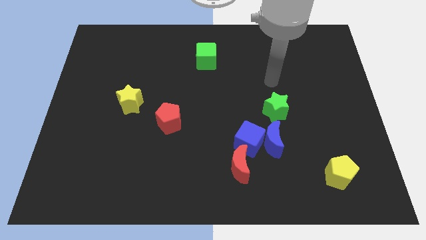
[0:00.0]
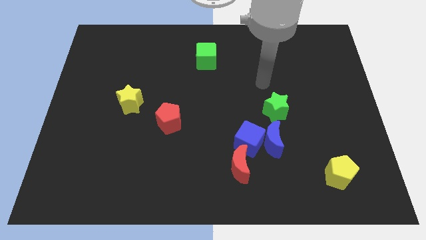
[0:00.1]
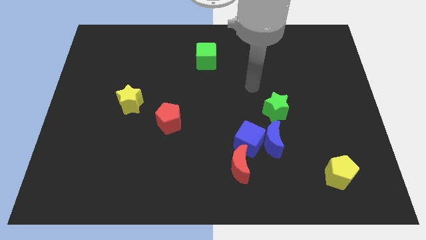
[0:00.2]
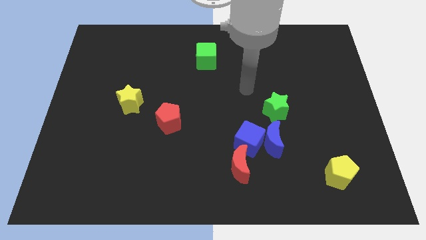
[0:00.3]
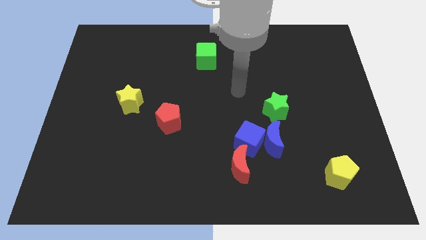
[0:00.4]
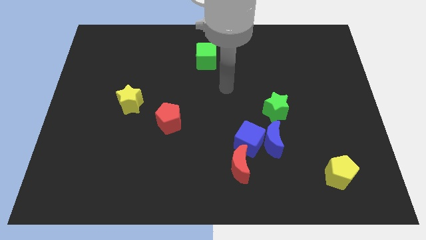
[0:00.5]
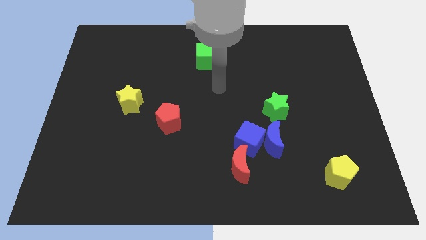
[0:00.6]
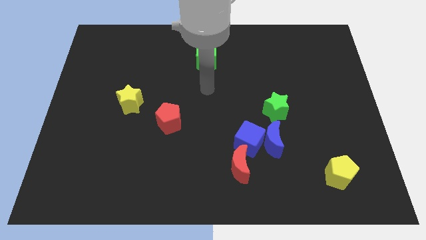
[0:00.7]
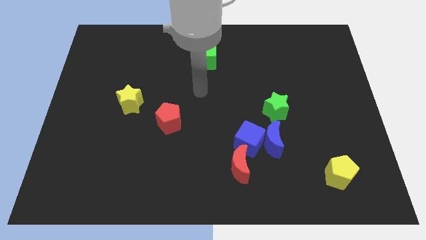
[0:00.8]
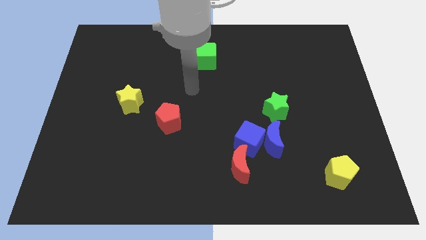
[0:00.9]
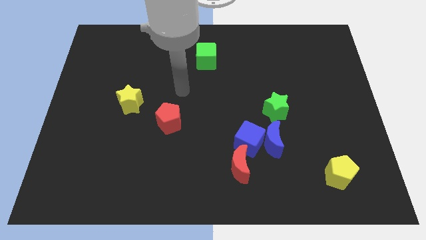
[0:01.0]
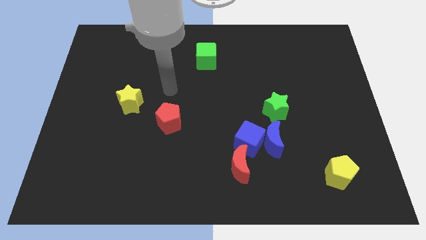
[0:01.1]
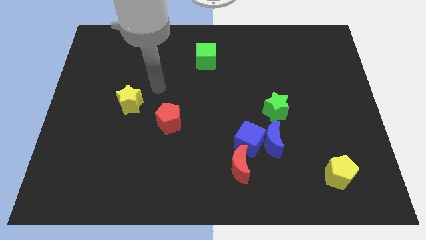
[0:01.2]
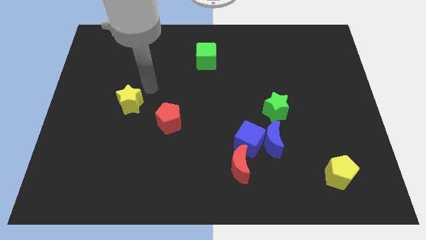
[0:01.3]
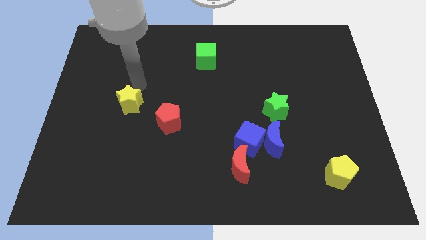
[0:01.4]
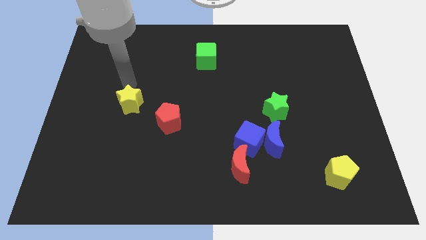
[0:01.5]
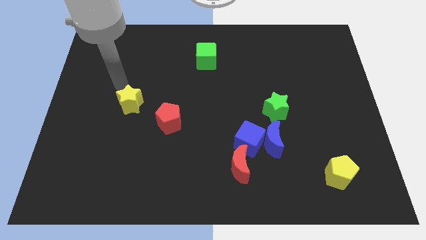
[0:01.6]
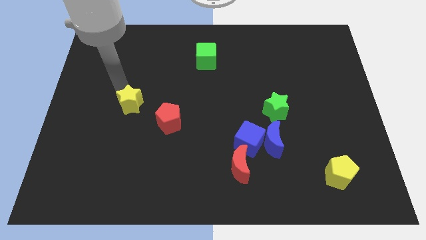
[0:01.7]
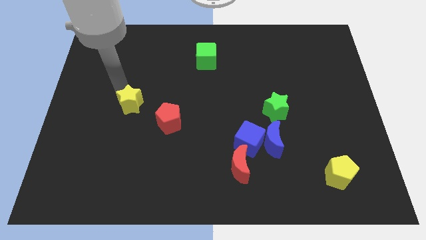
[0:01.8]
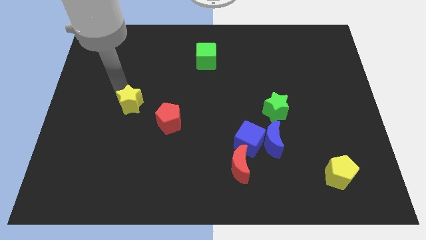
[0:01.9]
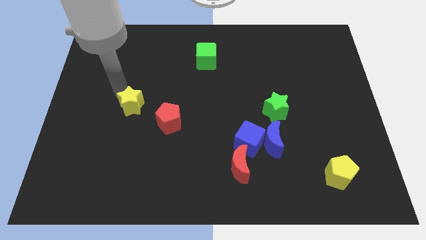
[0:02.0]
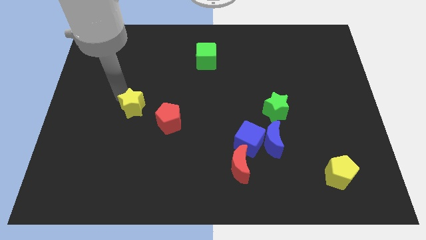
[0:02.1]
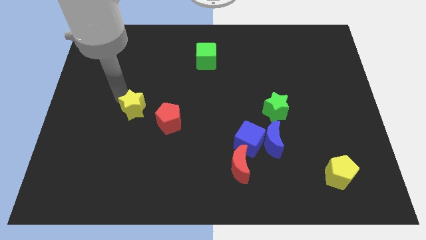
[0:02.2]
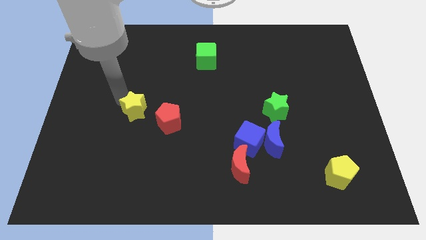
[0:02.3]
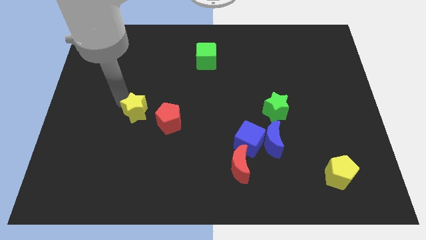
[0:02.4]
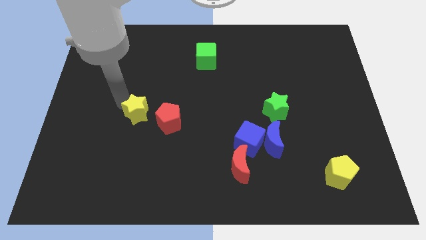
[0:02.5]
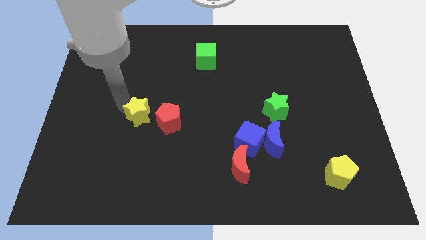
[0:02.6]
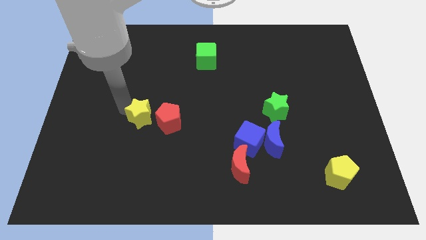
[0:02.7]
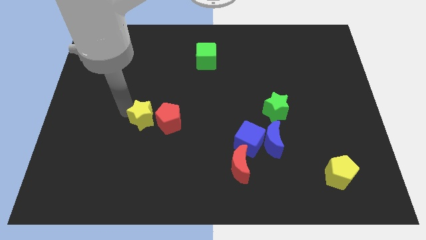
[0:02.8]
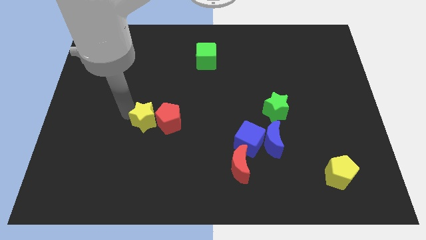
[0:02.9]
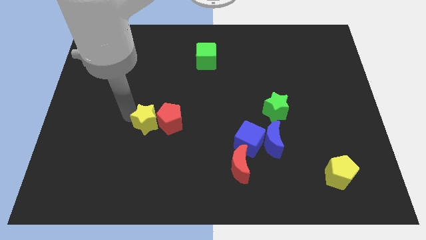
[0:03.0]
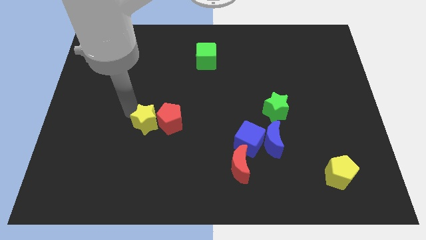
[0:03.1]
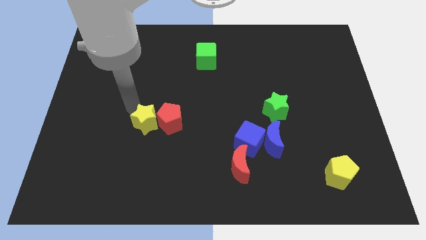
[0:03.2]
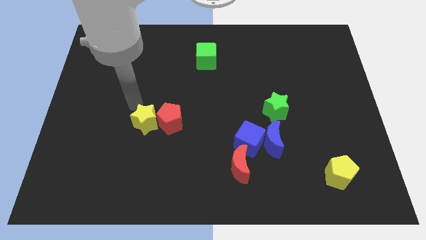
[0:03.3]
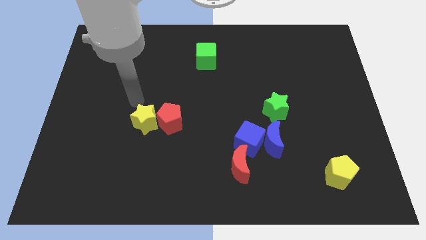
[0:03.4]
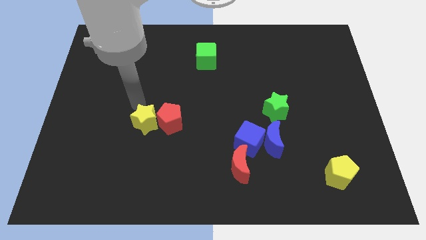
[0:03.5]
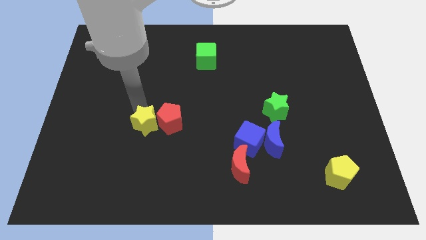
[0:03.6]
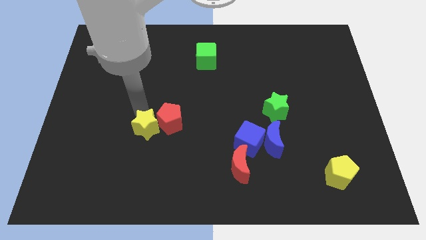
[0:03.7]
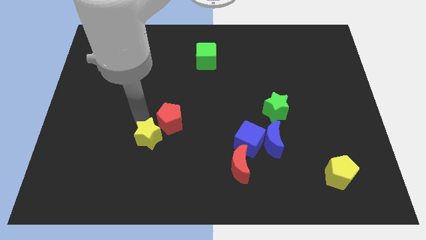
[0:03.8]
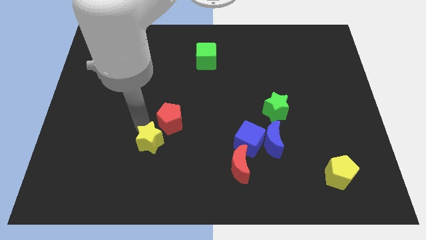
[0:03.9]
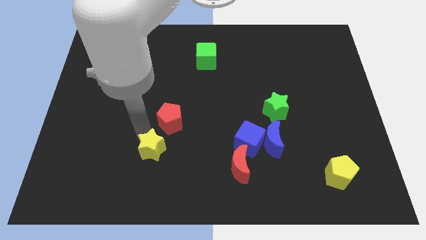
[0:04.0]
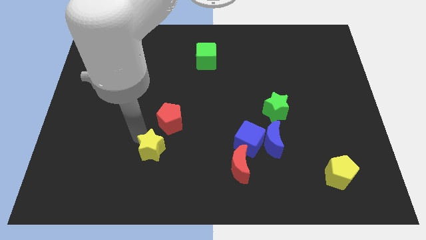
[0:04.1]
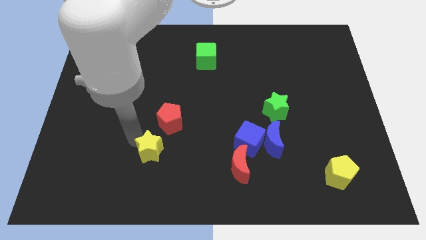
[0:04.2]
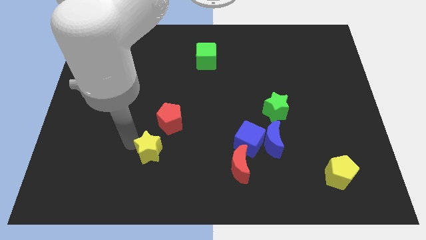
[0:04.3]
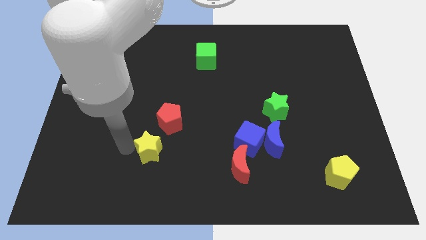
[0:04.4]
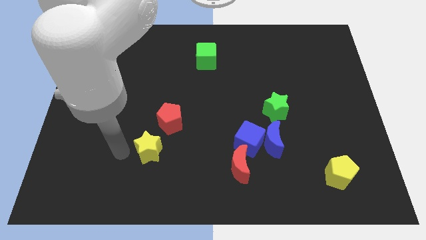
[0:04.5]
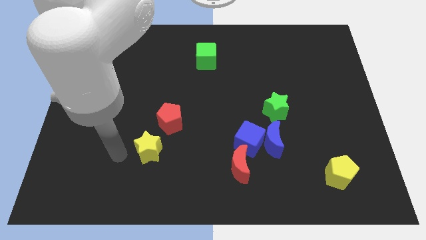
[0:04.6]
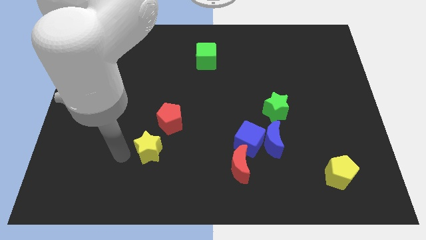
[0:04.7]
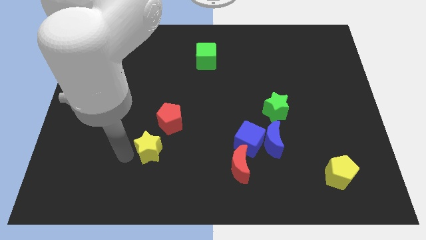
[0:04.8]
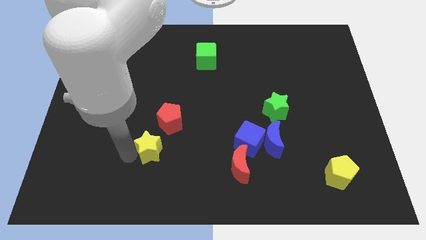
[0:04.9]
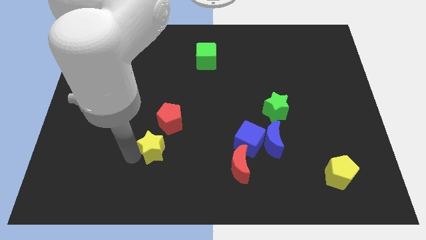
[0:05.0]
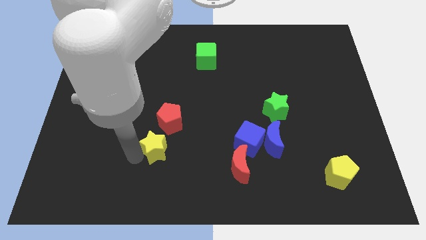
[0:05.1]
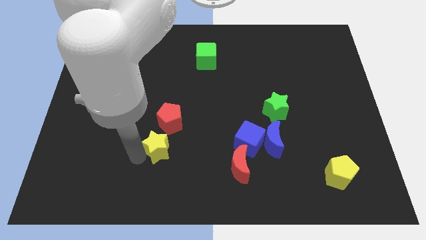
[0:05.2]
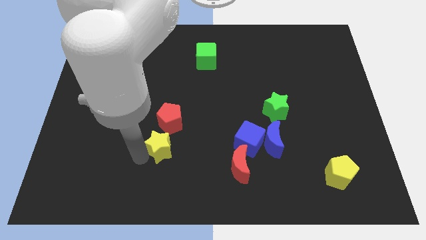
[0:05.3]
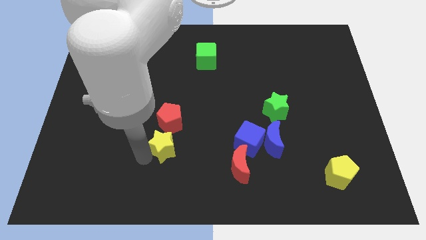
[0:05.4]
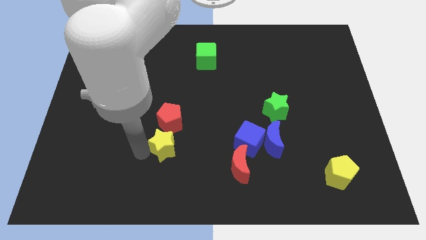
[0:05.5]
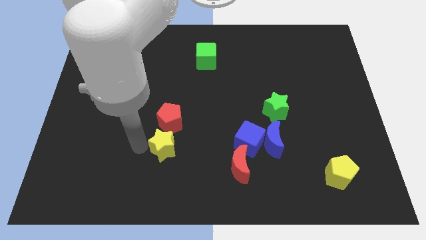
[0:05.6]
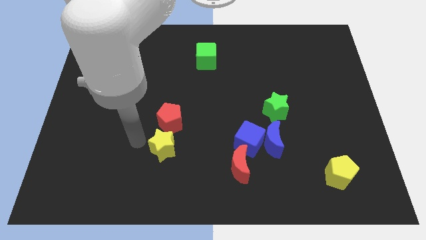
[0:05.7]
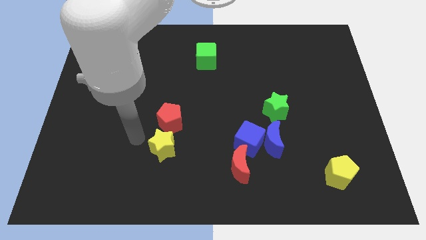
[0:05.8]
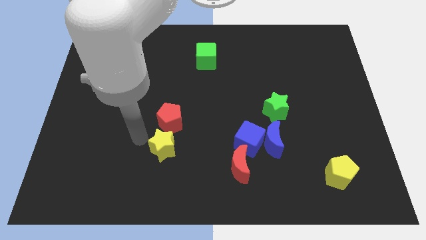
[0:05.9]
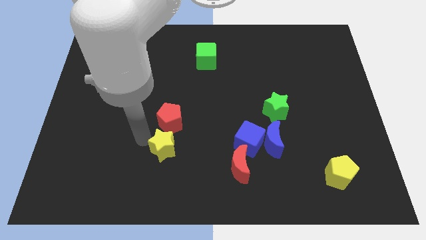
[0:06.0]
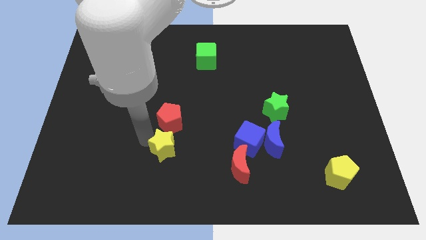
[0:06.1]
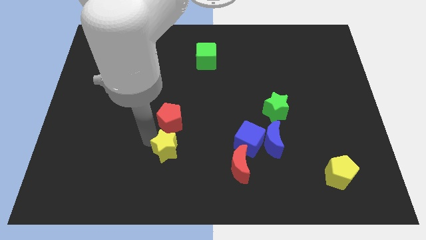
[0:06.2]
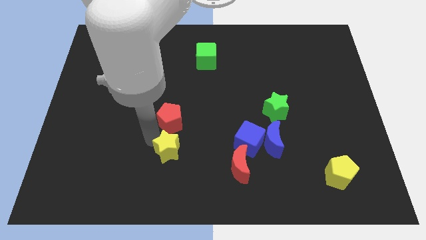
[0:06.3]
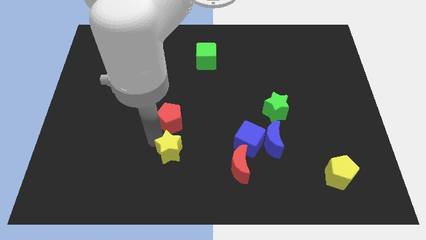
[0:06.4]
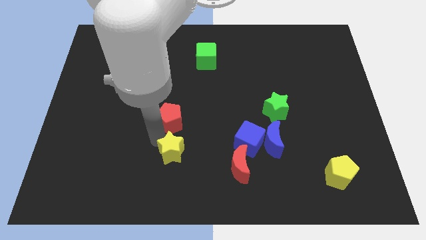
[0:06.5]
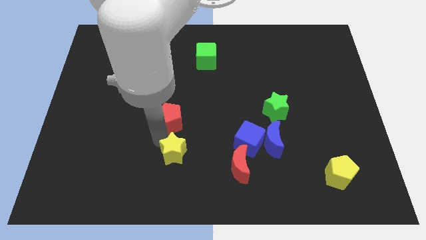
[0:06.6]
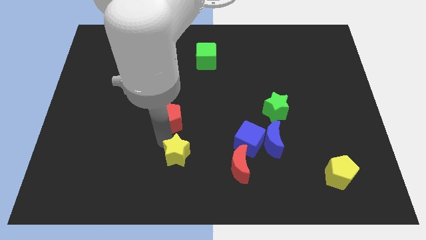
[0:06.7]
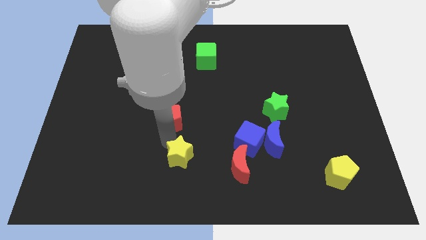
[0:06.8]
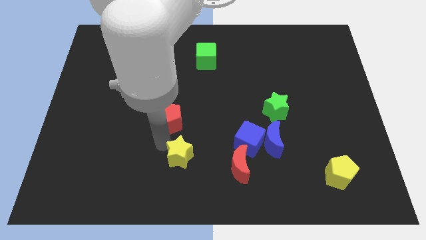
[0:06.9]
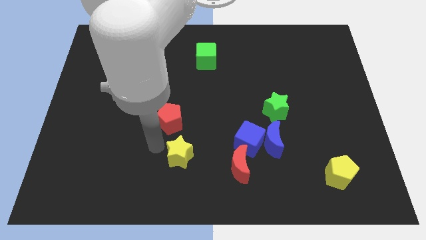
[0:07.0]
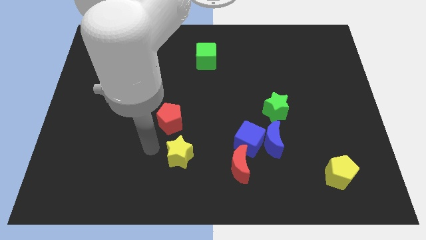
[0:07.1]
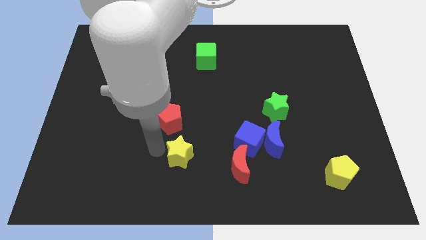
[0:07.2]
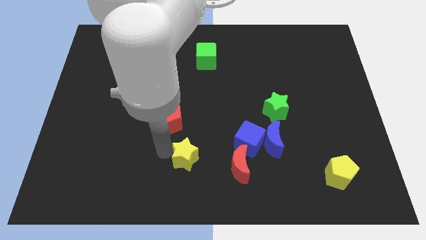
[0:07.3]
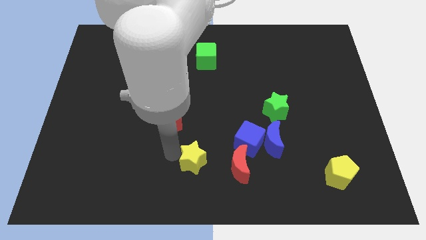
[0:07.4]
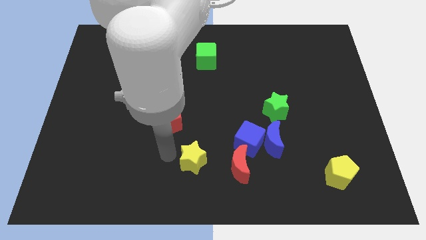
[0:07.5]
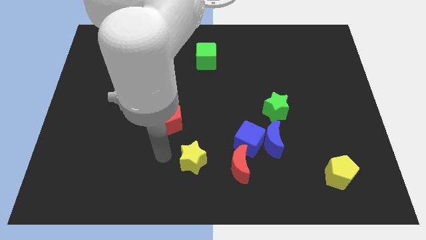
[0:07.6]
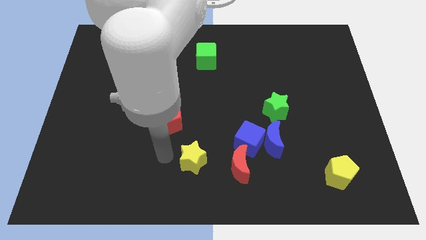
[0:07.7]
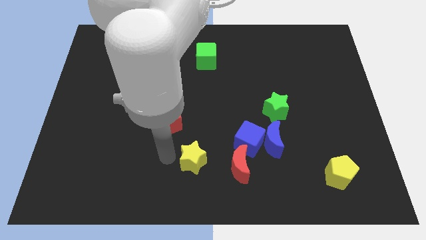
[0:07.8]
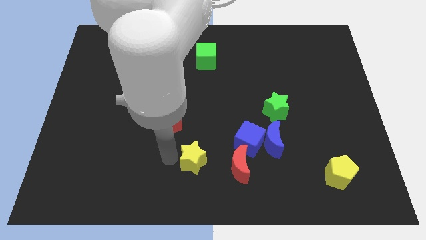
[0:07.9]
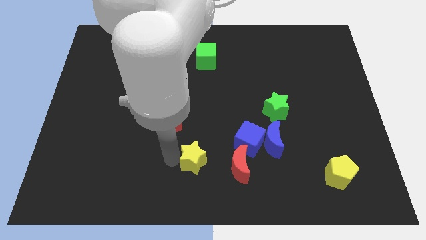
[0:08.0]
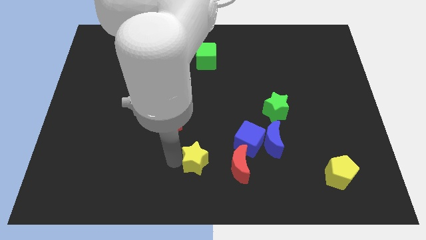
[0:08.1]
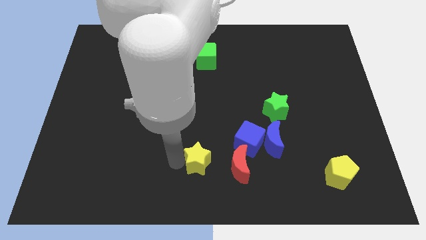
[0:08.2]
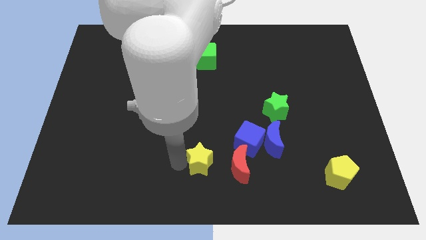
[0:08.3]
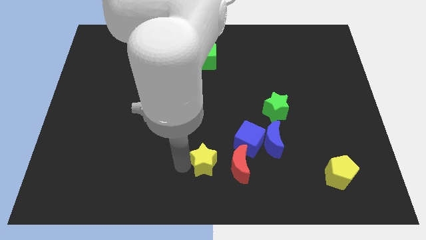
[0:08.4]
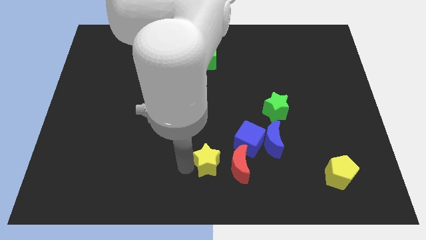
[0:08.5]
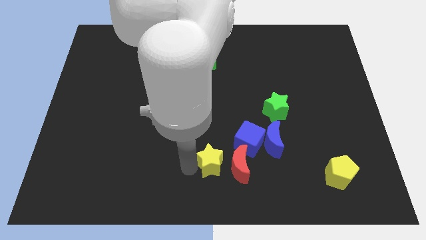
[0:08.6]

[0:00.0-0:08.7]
slide the yellow star towards the red moon
